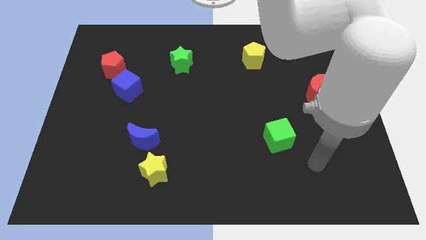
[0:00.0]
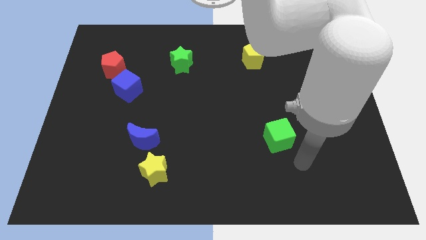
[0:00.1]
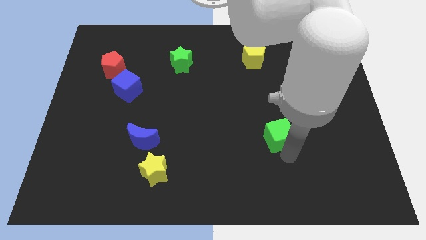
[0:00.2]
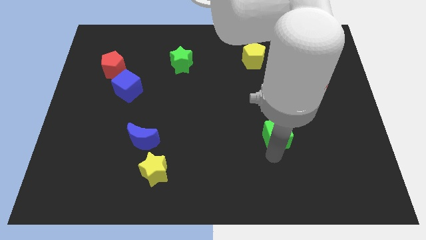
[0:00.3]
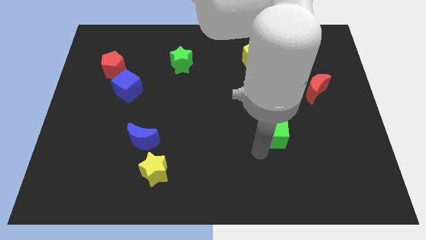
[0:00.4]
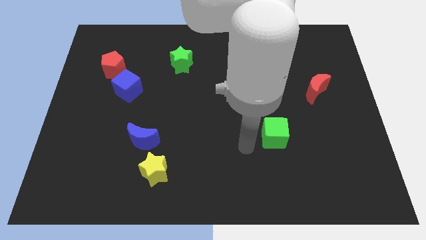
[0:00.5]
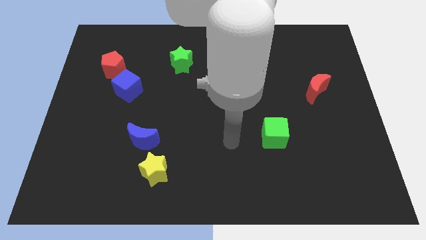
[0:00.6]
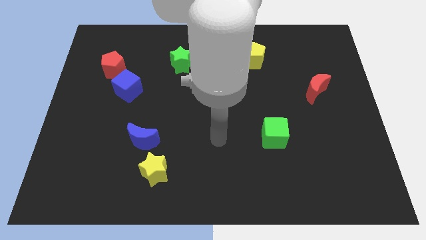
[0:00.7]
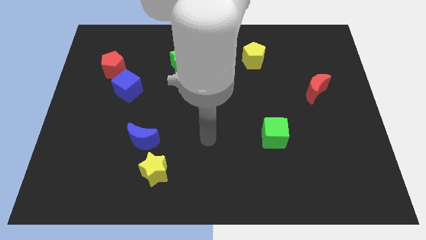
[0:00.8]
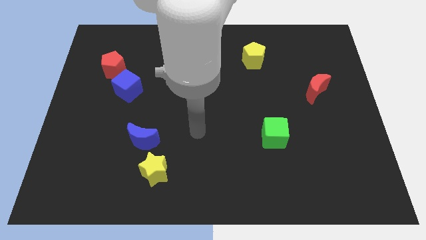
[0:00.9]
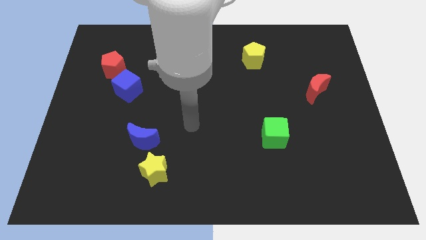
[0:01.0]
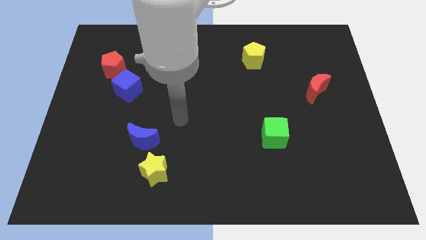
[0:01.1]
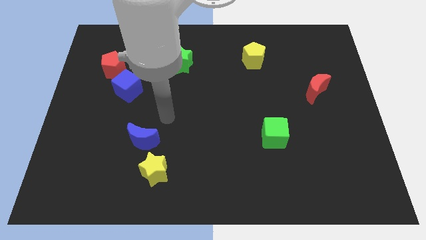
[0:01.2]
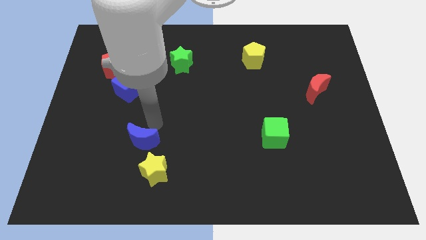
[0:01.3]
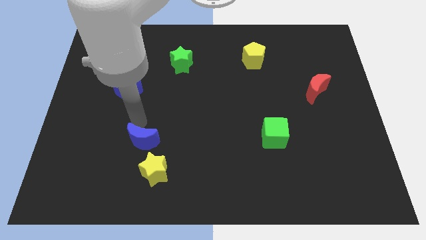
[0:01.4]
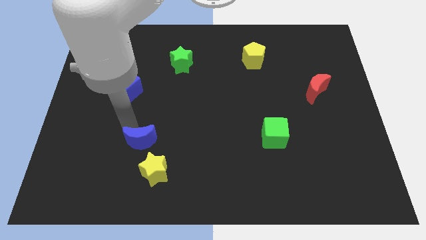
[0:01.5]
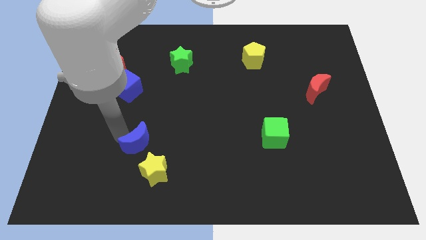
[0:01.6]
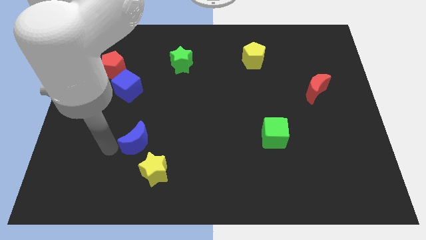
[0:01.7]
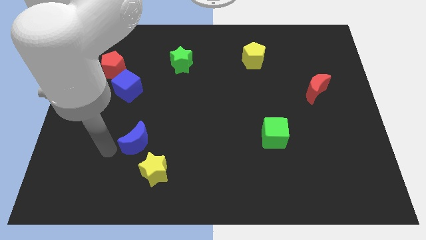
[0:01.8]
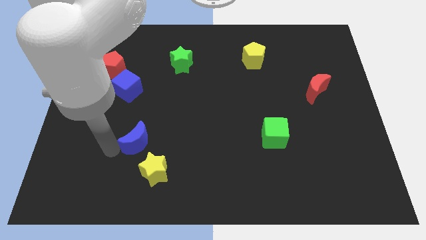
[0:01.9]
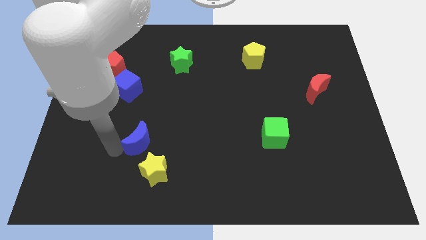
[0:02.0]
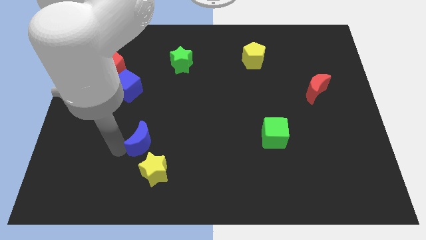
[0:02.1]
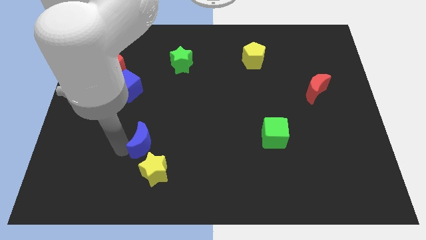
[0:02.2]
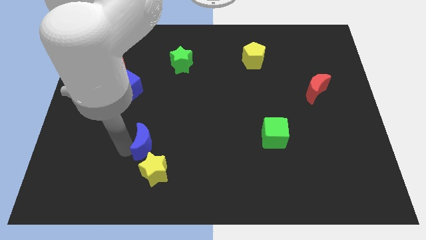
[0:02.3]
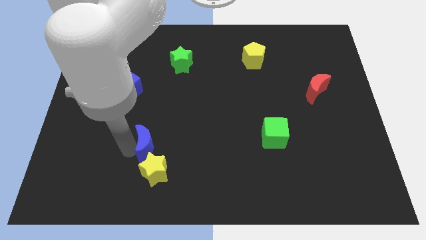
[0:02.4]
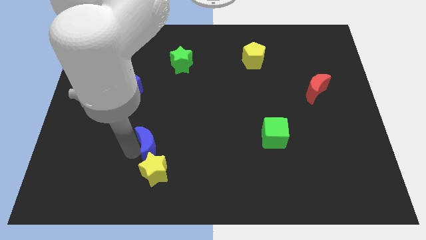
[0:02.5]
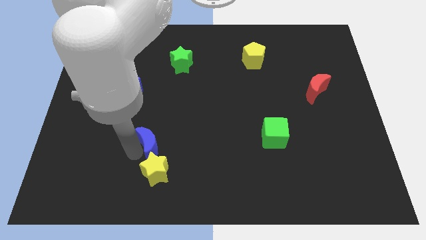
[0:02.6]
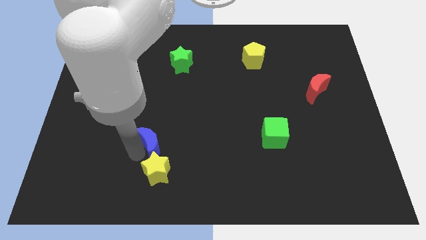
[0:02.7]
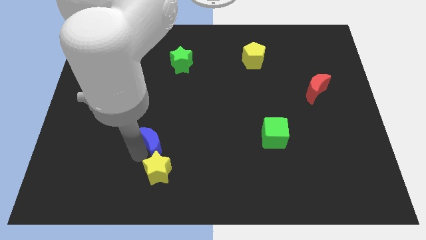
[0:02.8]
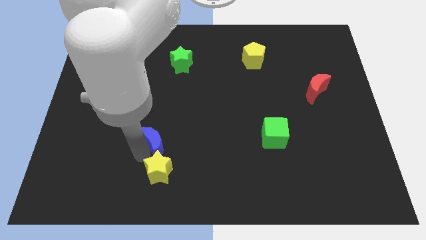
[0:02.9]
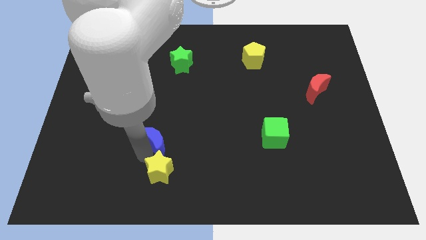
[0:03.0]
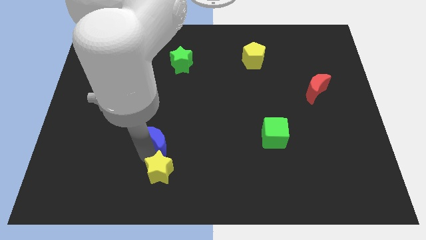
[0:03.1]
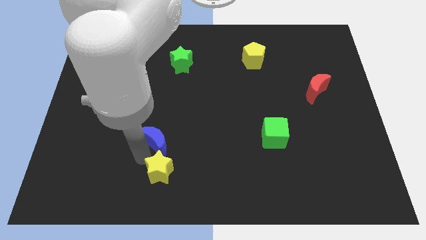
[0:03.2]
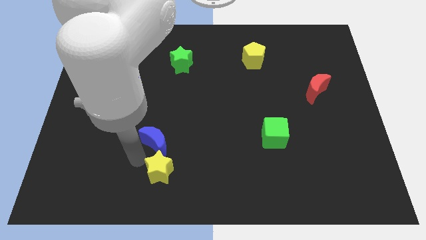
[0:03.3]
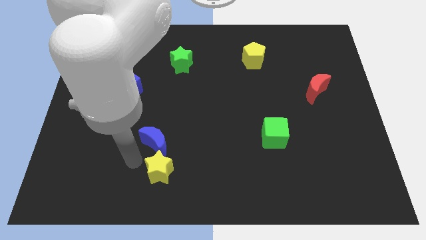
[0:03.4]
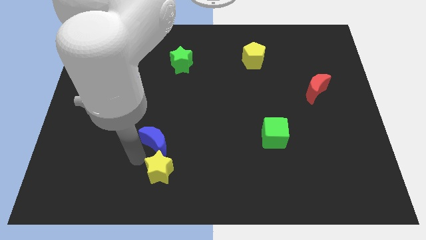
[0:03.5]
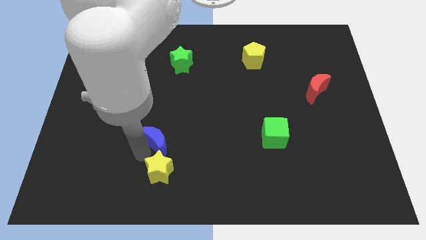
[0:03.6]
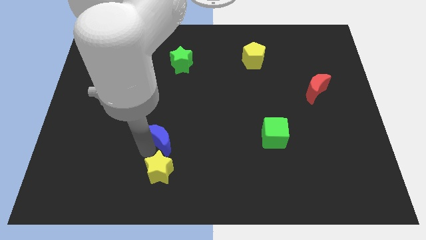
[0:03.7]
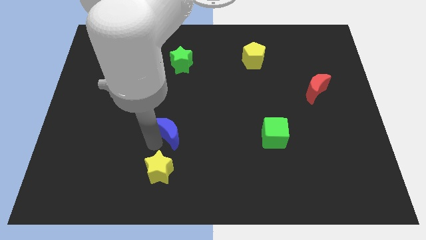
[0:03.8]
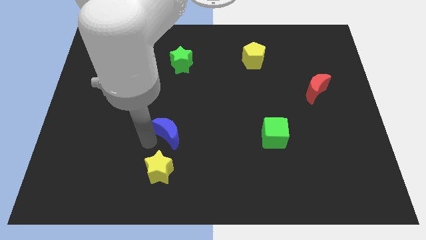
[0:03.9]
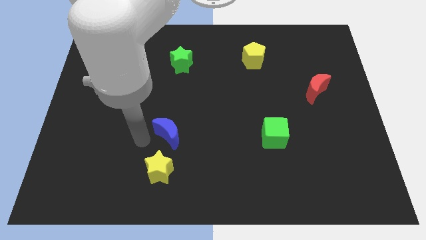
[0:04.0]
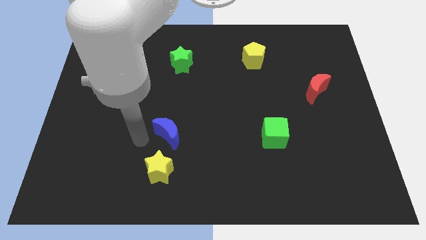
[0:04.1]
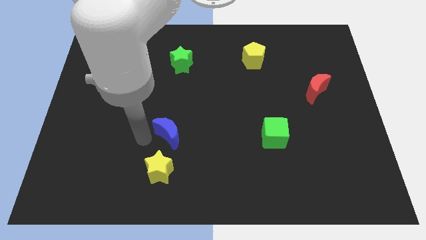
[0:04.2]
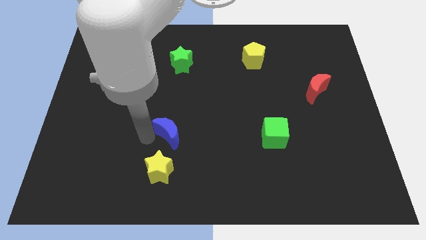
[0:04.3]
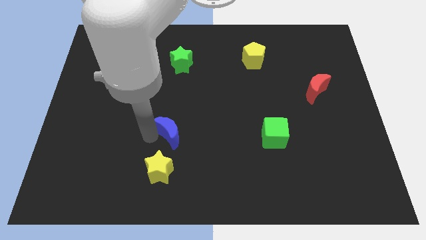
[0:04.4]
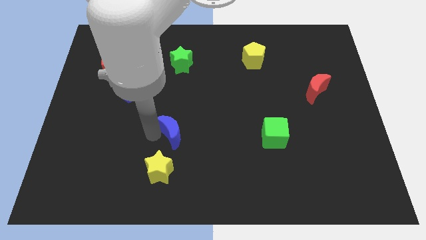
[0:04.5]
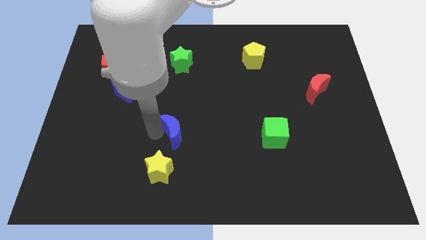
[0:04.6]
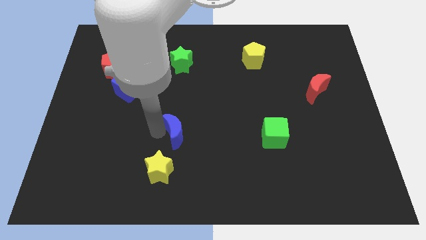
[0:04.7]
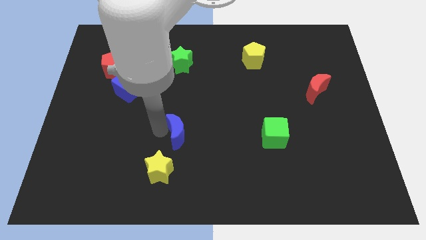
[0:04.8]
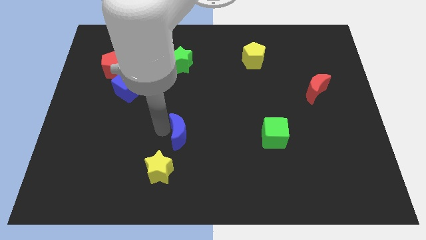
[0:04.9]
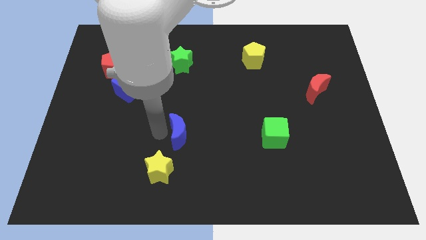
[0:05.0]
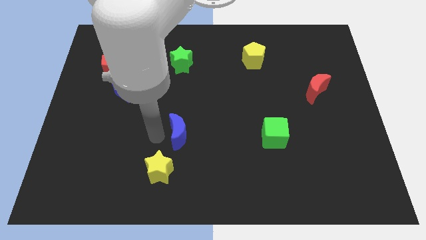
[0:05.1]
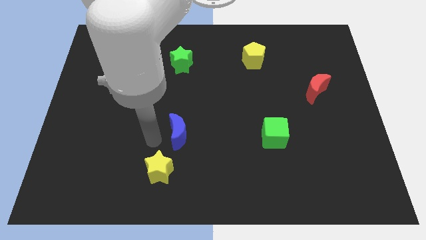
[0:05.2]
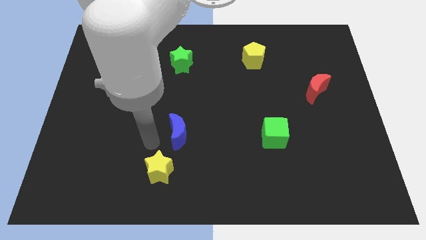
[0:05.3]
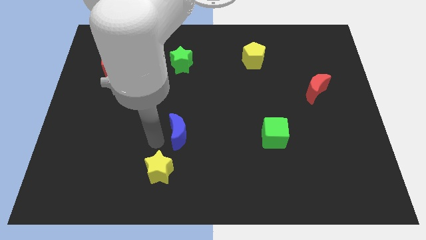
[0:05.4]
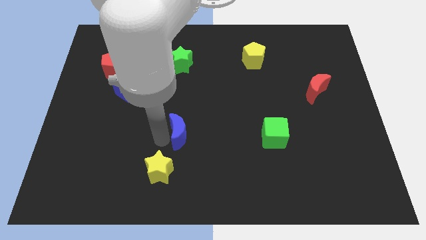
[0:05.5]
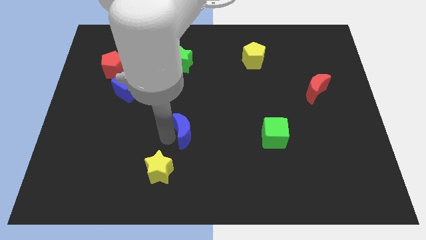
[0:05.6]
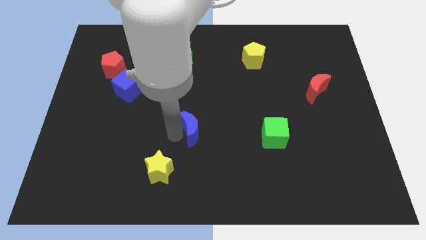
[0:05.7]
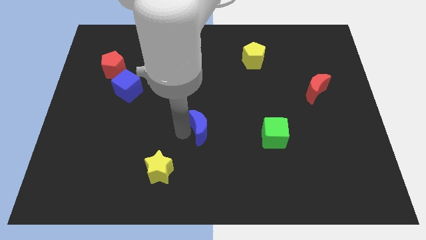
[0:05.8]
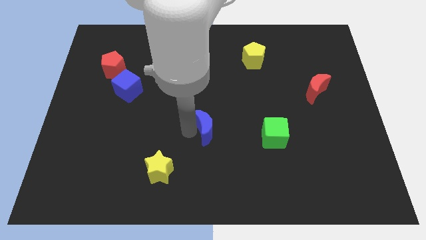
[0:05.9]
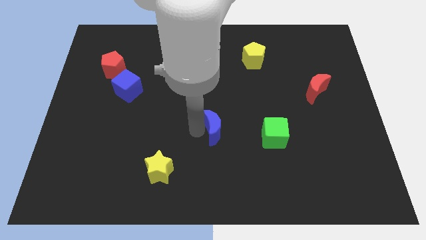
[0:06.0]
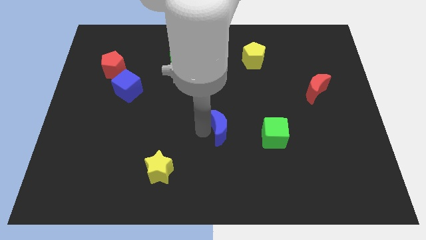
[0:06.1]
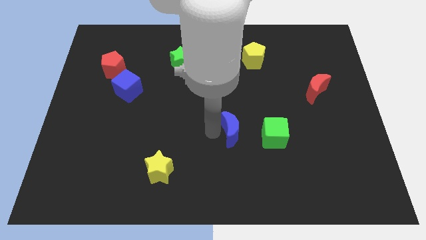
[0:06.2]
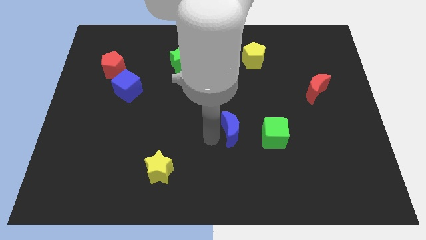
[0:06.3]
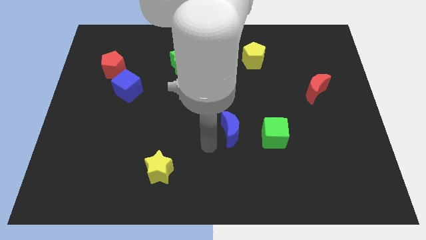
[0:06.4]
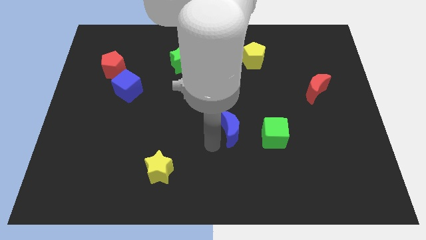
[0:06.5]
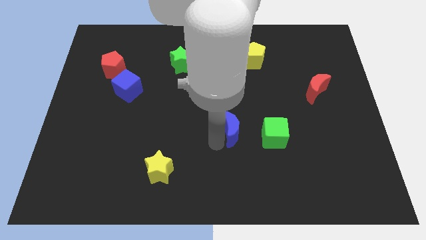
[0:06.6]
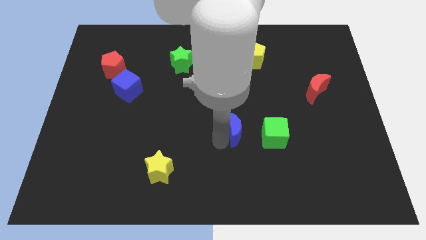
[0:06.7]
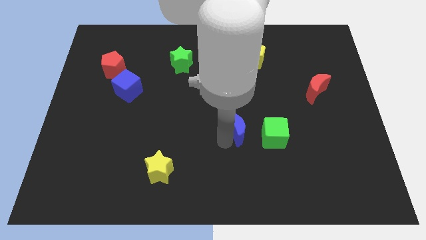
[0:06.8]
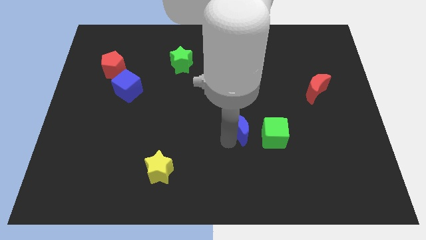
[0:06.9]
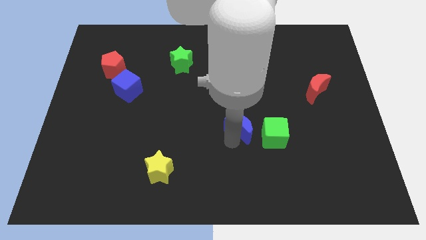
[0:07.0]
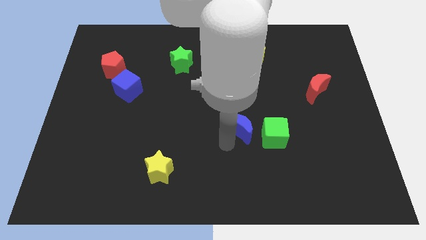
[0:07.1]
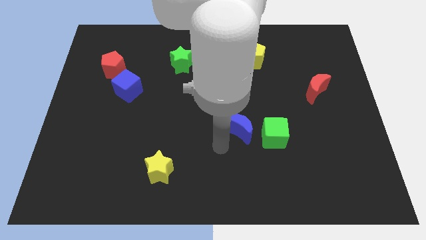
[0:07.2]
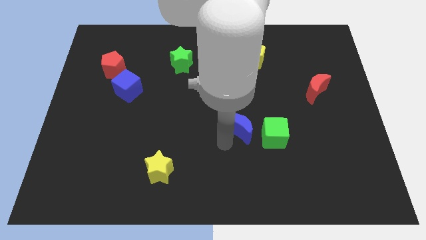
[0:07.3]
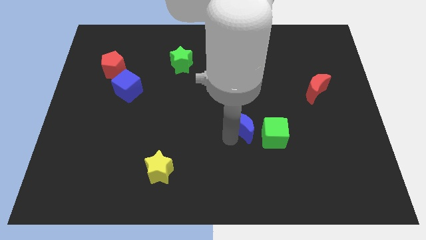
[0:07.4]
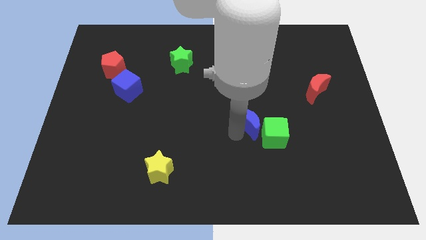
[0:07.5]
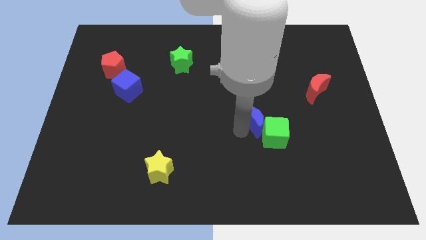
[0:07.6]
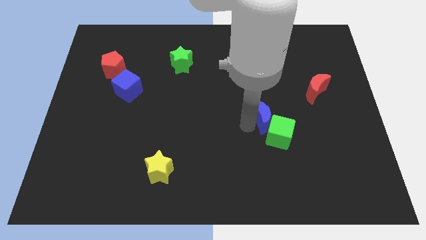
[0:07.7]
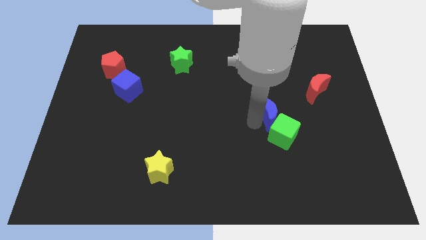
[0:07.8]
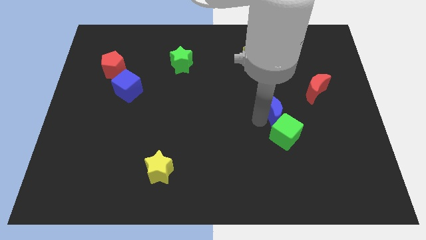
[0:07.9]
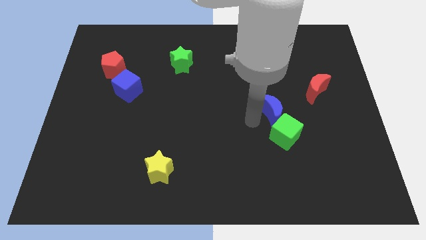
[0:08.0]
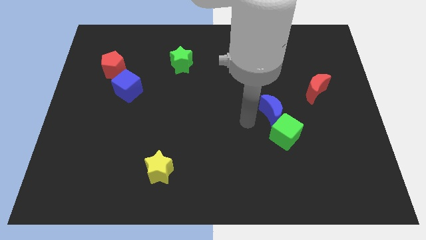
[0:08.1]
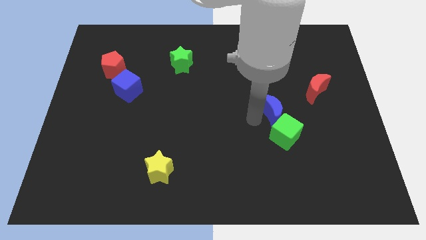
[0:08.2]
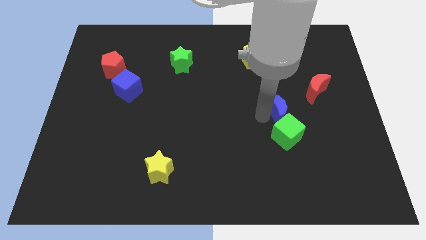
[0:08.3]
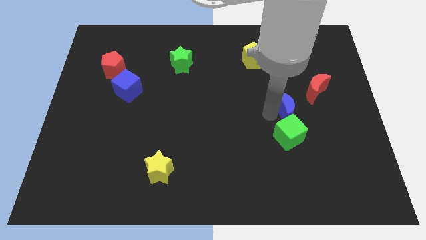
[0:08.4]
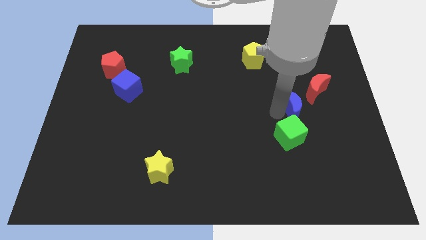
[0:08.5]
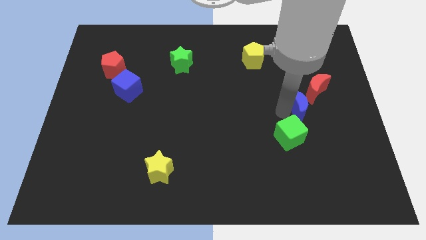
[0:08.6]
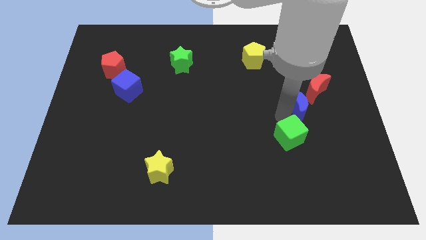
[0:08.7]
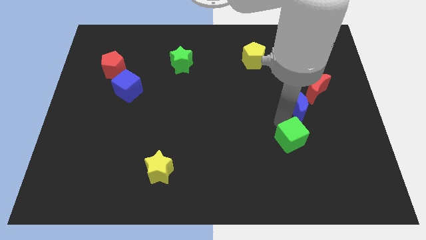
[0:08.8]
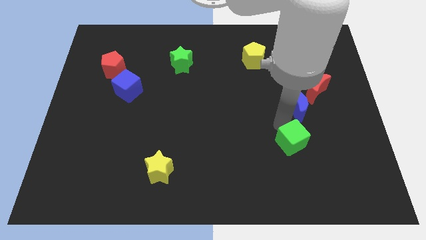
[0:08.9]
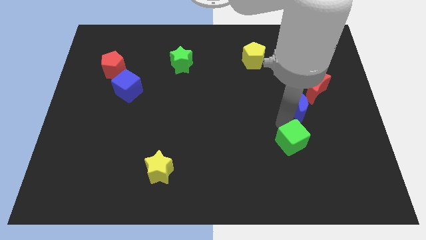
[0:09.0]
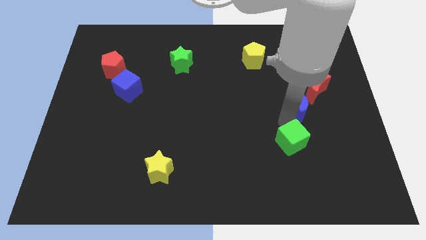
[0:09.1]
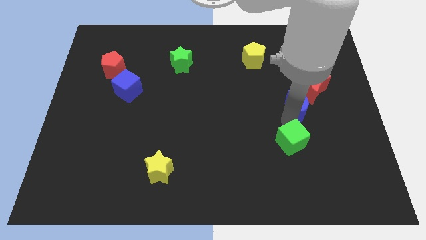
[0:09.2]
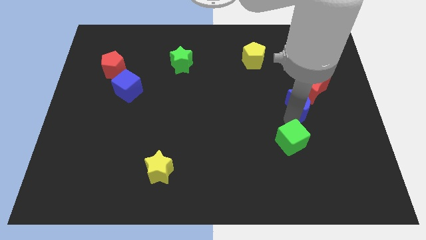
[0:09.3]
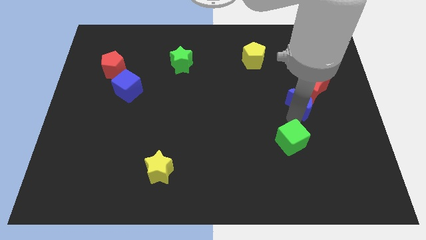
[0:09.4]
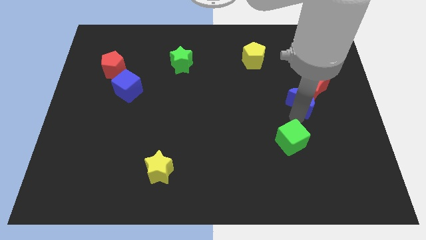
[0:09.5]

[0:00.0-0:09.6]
put the blue moon next to the red moon
